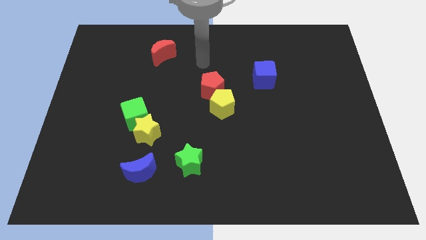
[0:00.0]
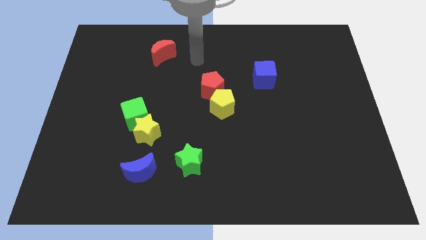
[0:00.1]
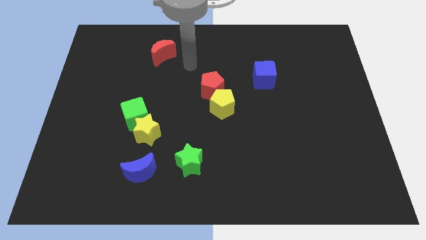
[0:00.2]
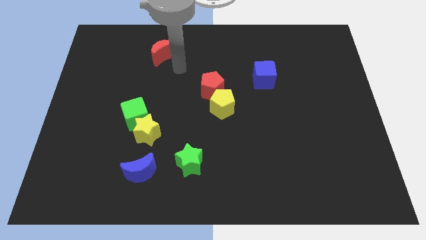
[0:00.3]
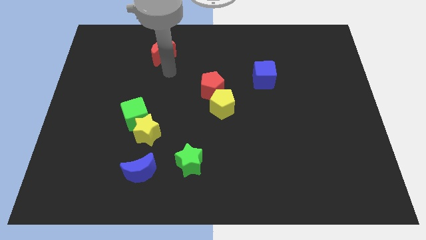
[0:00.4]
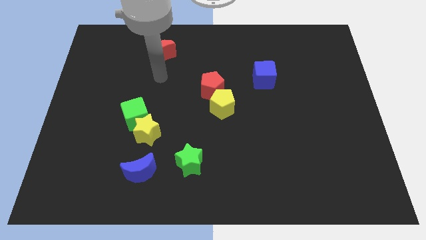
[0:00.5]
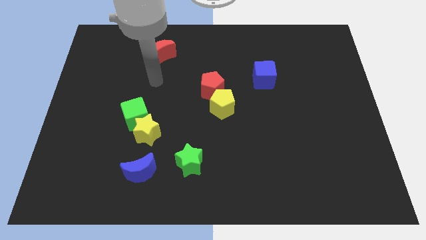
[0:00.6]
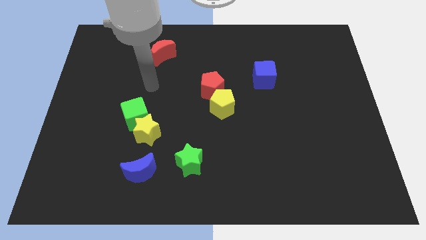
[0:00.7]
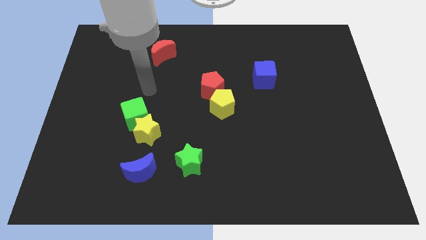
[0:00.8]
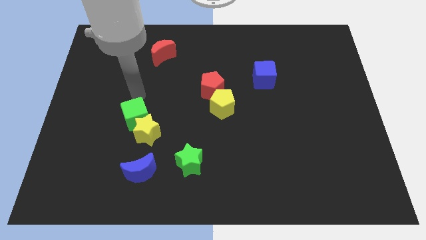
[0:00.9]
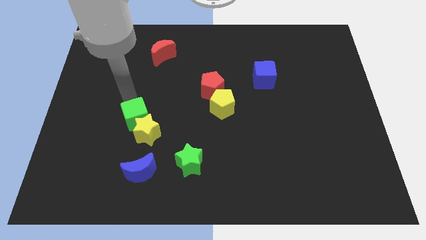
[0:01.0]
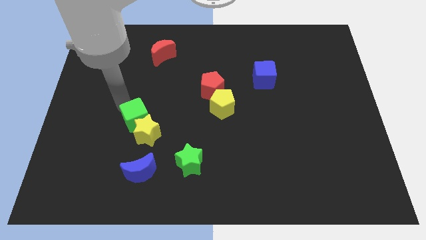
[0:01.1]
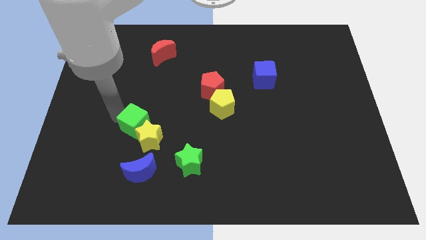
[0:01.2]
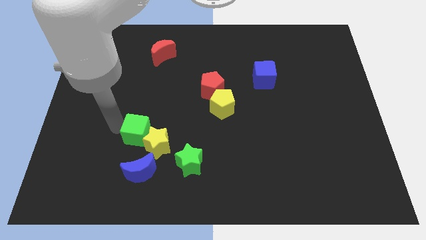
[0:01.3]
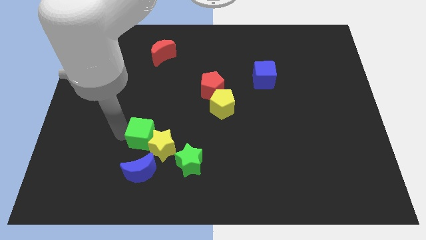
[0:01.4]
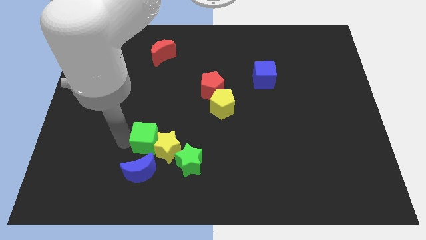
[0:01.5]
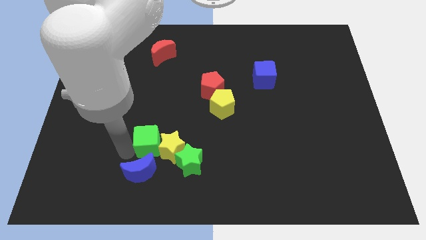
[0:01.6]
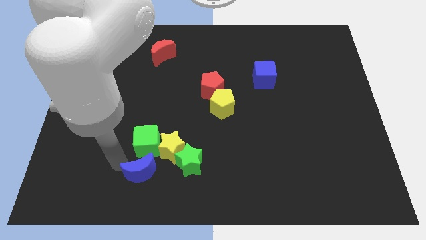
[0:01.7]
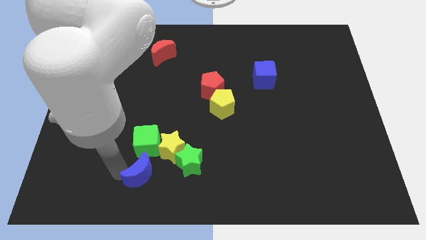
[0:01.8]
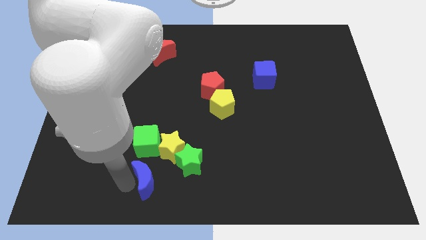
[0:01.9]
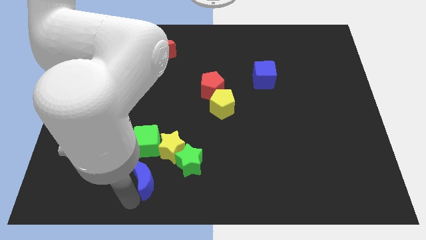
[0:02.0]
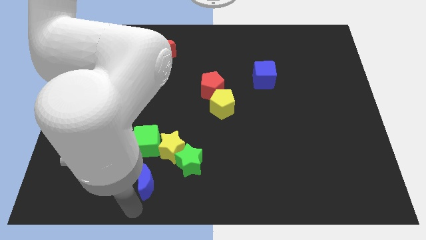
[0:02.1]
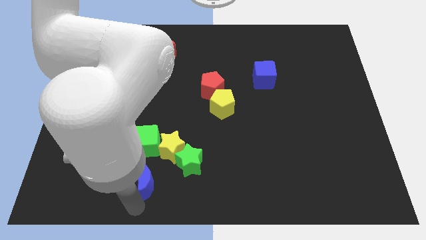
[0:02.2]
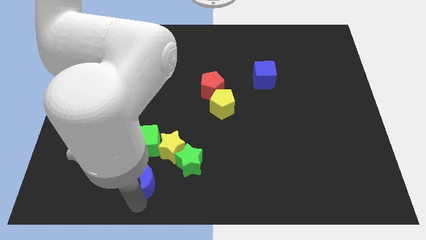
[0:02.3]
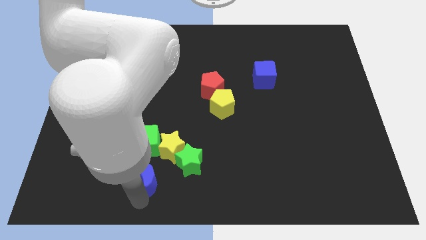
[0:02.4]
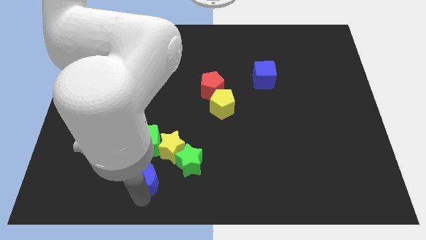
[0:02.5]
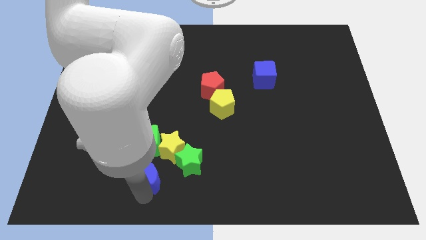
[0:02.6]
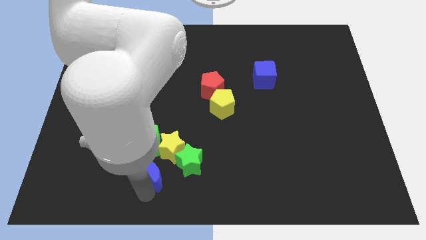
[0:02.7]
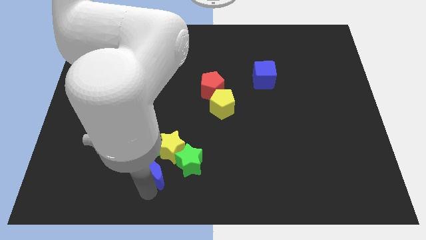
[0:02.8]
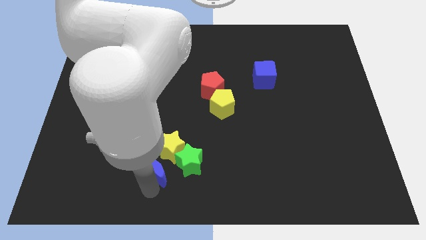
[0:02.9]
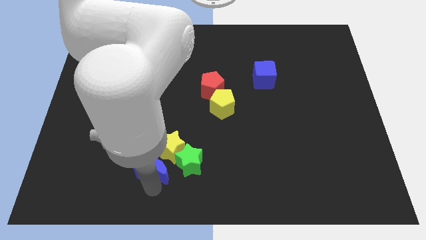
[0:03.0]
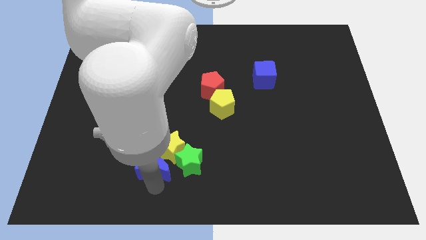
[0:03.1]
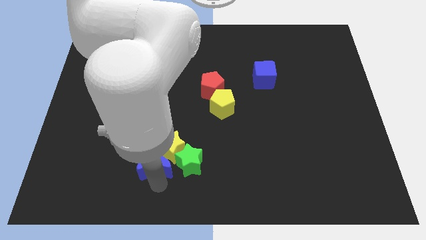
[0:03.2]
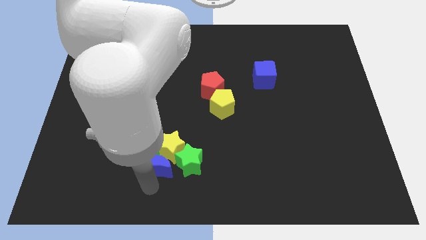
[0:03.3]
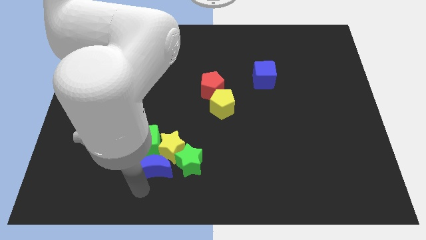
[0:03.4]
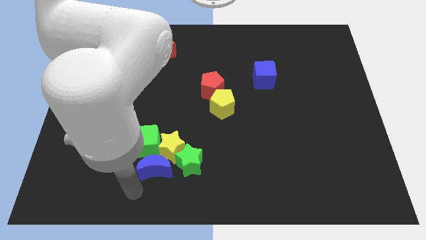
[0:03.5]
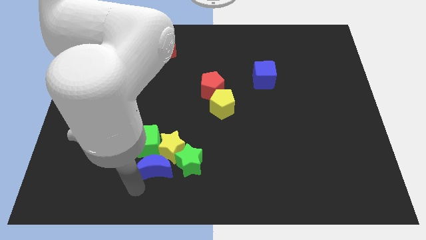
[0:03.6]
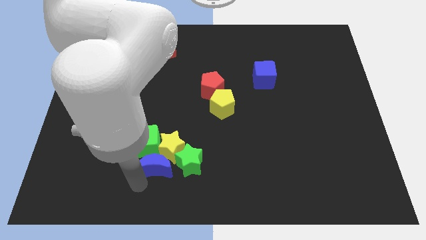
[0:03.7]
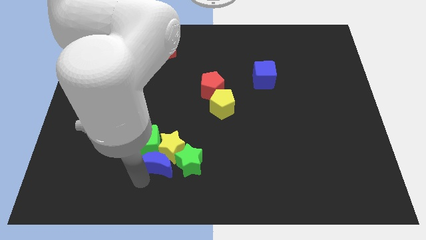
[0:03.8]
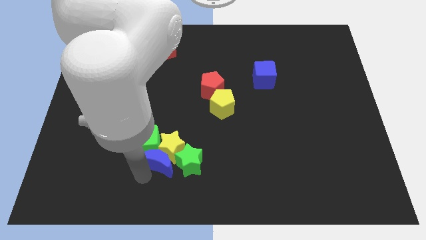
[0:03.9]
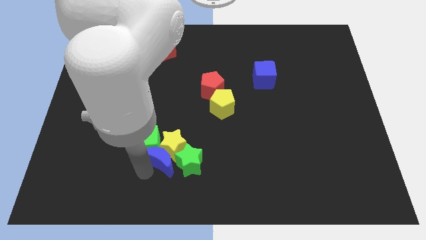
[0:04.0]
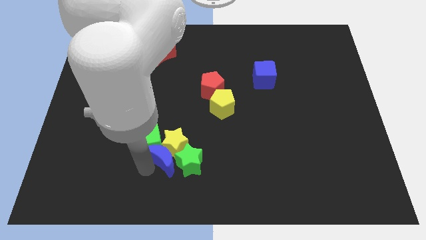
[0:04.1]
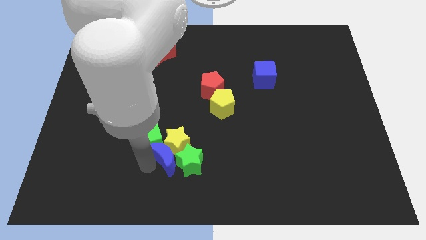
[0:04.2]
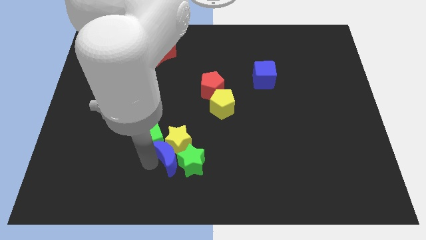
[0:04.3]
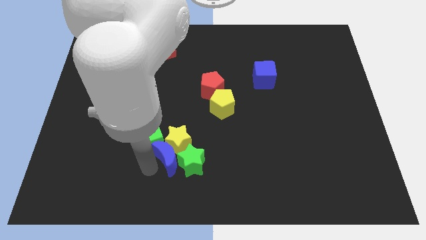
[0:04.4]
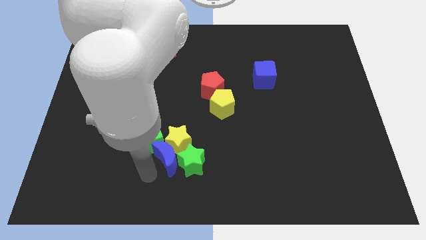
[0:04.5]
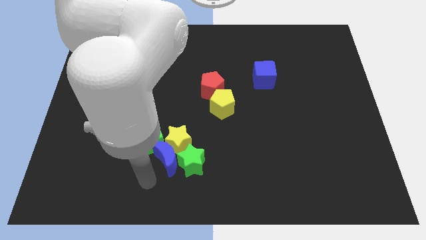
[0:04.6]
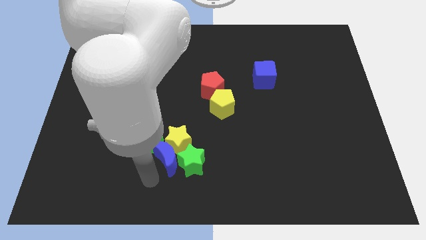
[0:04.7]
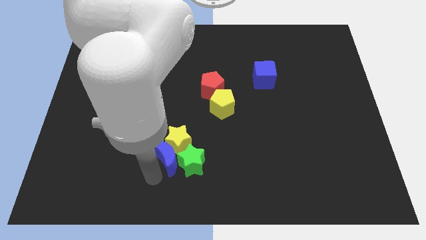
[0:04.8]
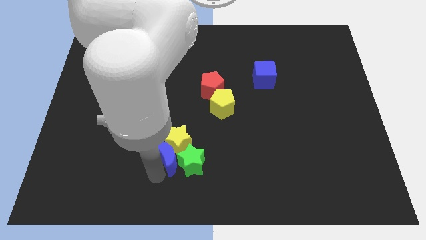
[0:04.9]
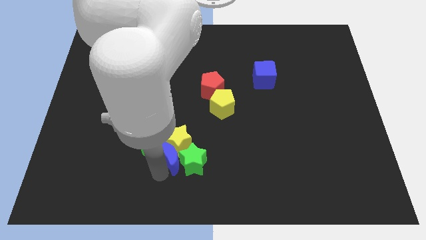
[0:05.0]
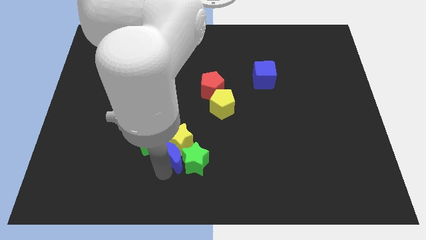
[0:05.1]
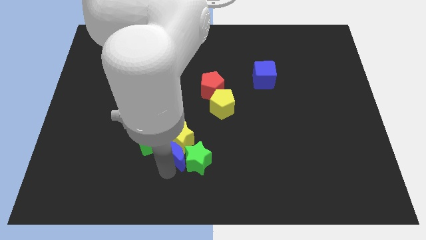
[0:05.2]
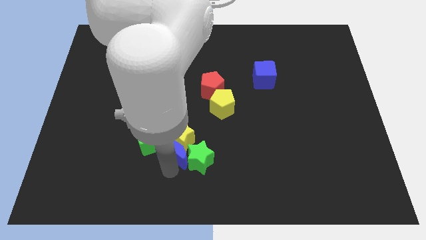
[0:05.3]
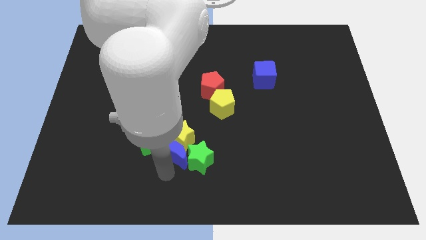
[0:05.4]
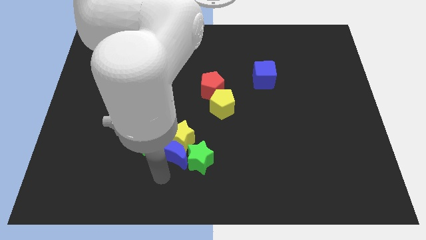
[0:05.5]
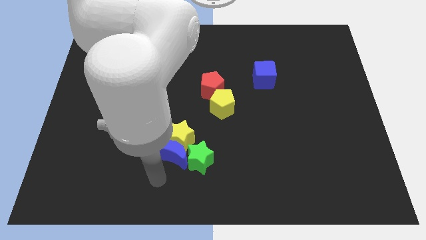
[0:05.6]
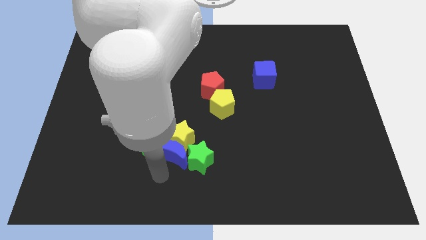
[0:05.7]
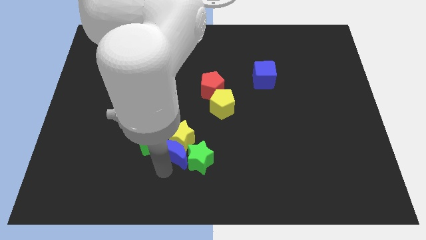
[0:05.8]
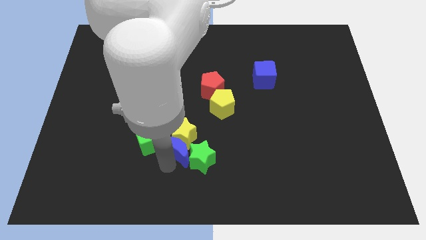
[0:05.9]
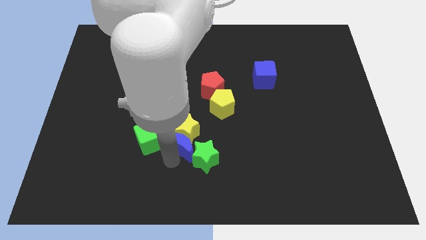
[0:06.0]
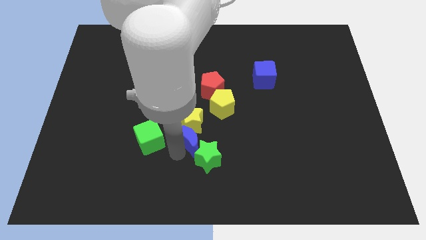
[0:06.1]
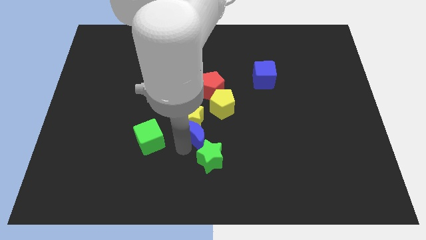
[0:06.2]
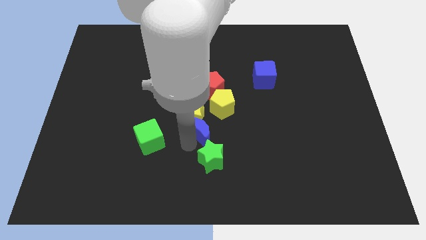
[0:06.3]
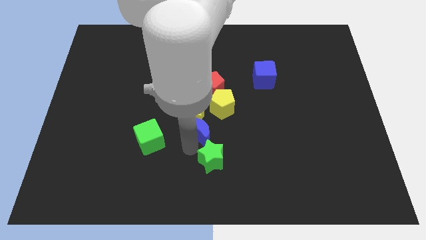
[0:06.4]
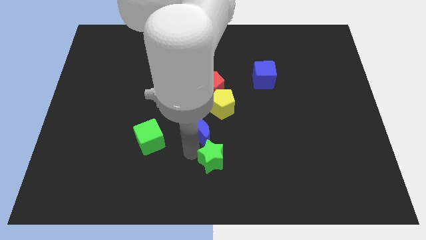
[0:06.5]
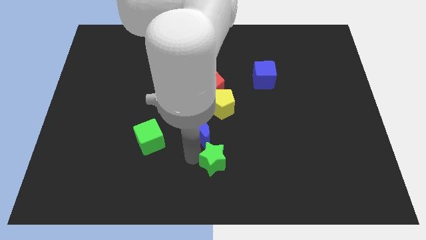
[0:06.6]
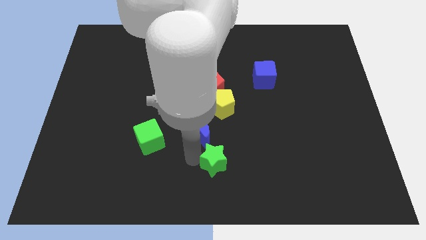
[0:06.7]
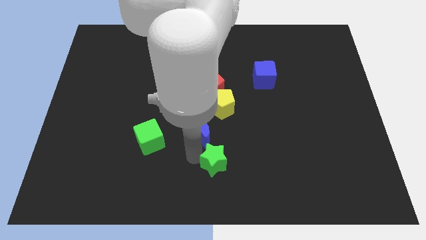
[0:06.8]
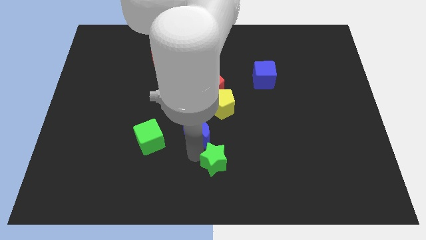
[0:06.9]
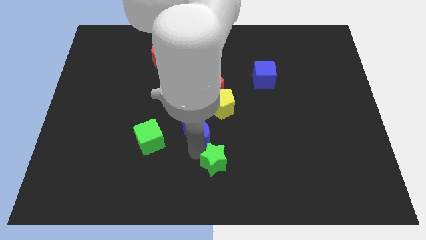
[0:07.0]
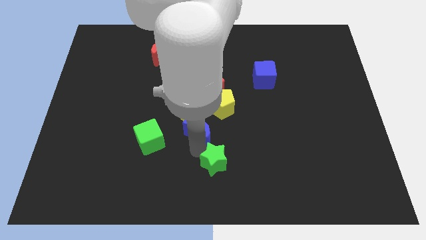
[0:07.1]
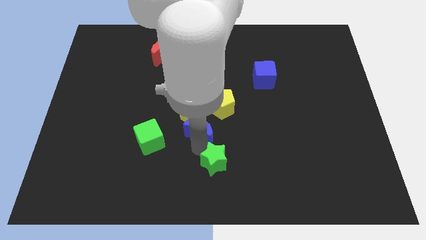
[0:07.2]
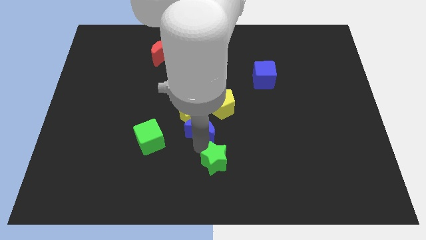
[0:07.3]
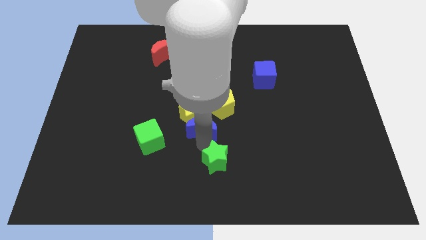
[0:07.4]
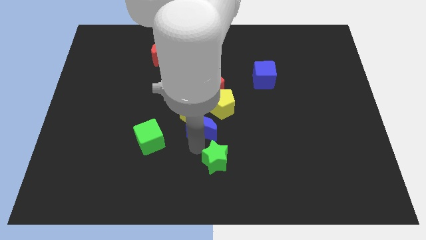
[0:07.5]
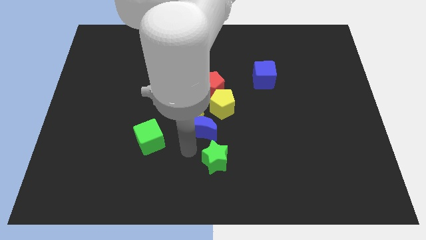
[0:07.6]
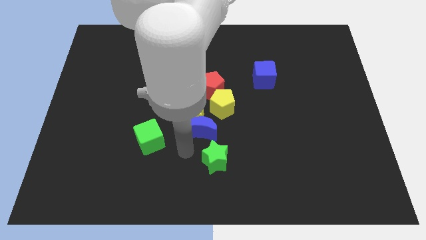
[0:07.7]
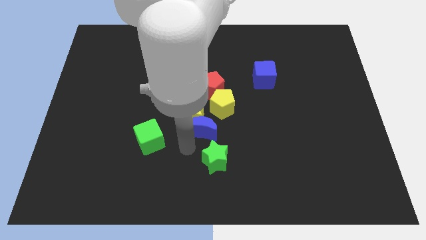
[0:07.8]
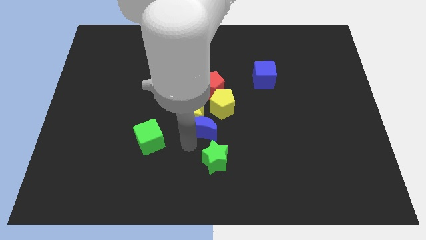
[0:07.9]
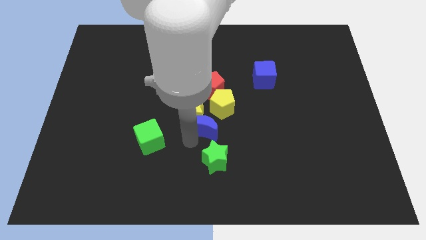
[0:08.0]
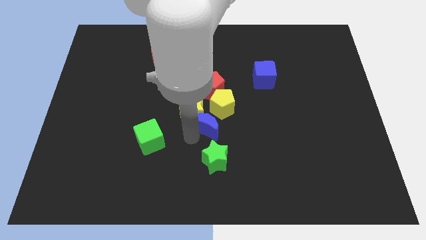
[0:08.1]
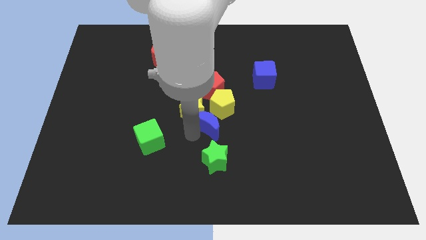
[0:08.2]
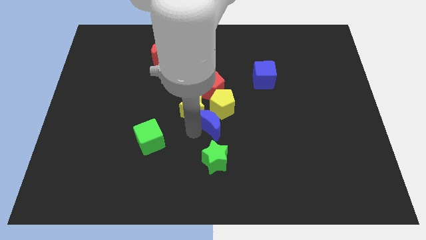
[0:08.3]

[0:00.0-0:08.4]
put the blue moon to the yellow pentagon
